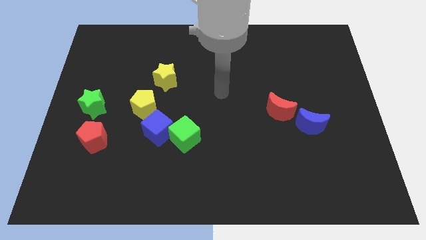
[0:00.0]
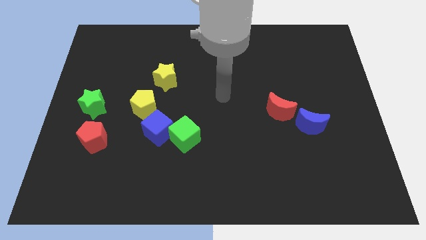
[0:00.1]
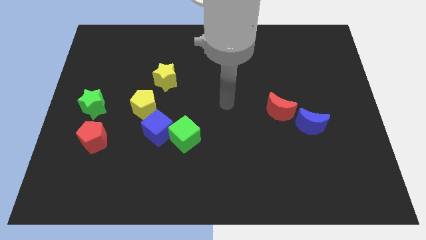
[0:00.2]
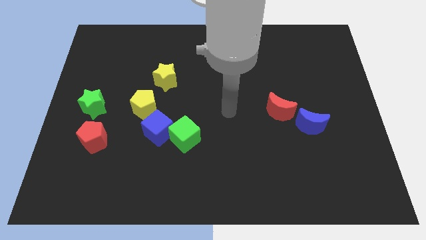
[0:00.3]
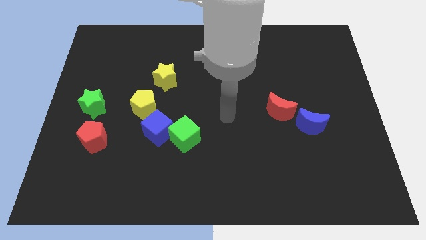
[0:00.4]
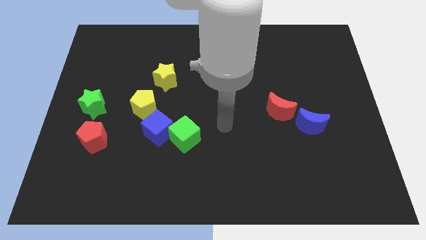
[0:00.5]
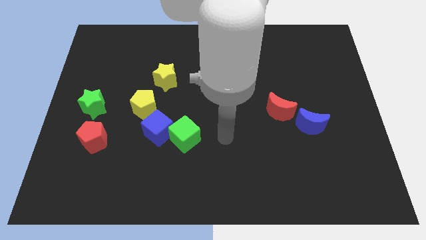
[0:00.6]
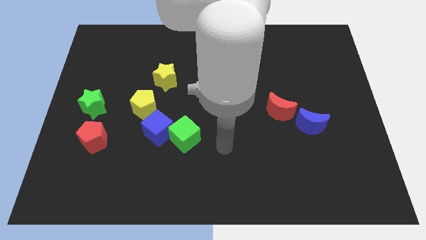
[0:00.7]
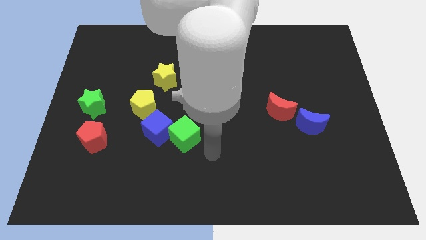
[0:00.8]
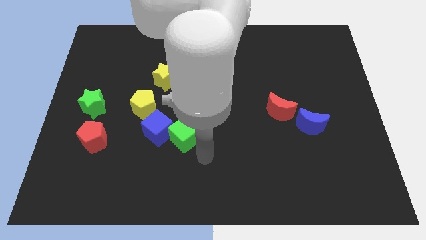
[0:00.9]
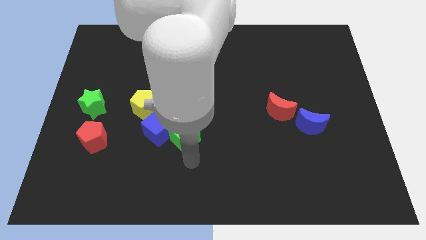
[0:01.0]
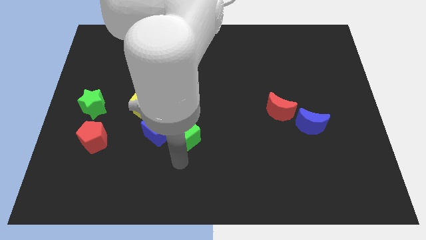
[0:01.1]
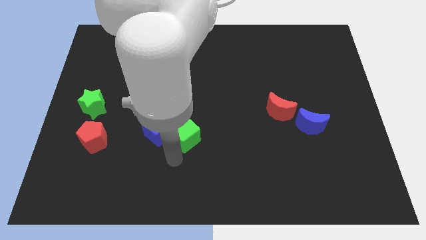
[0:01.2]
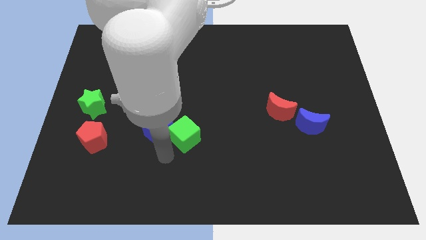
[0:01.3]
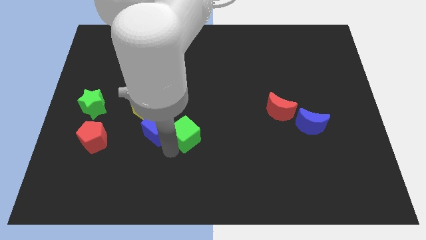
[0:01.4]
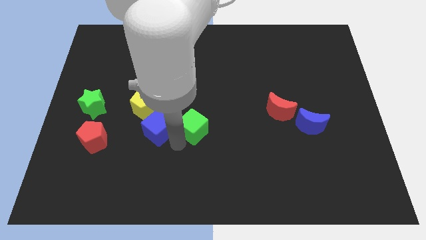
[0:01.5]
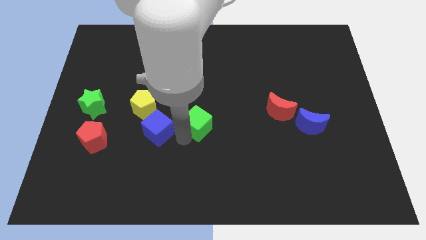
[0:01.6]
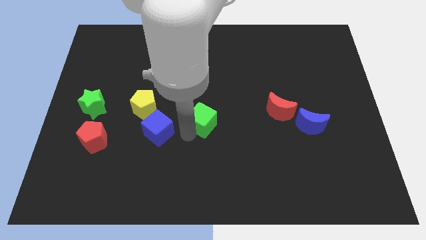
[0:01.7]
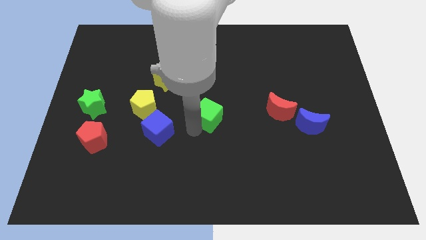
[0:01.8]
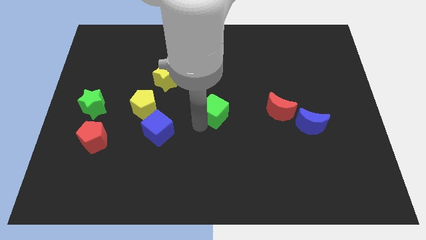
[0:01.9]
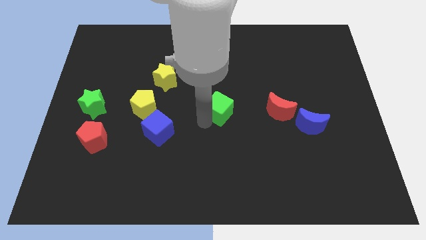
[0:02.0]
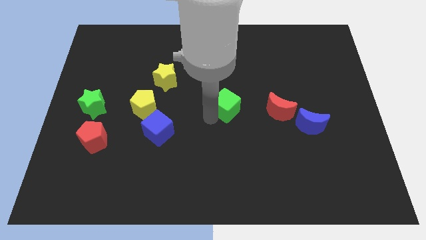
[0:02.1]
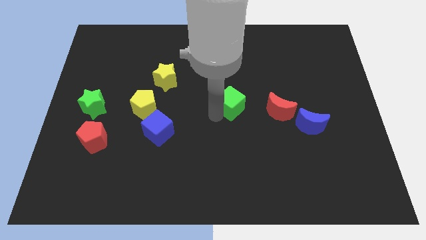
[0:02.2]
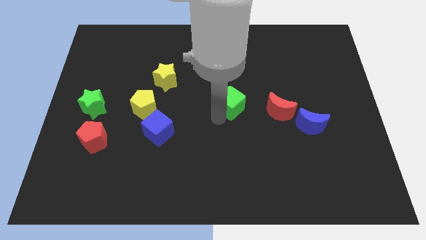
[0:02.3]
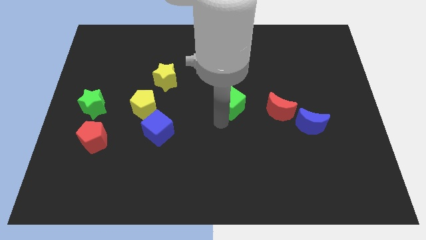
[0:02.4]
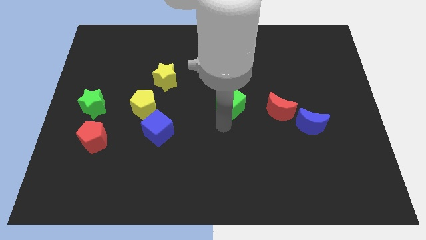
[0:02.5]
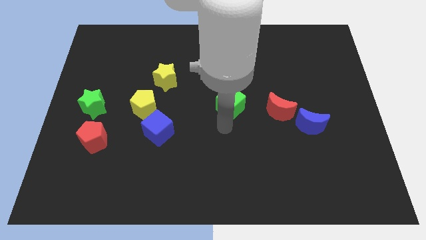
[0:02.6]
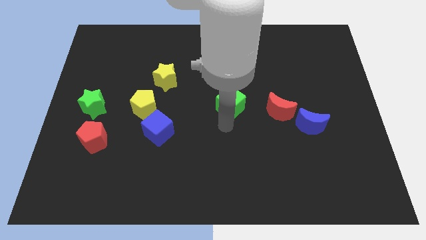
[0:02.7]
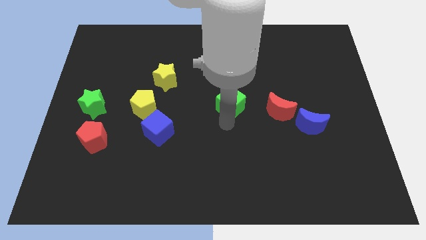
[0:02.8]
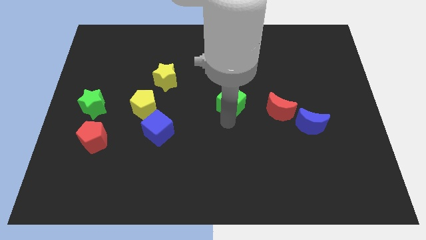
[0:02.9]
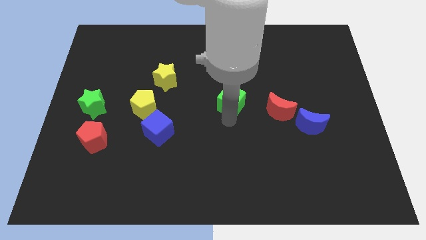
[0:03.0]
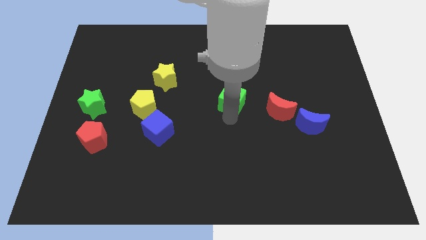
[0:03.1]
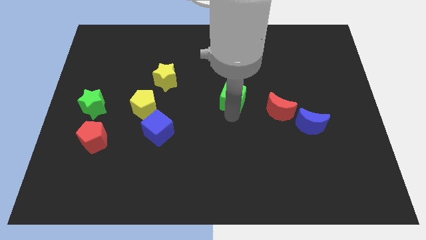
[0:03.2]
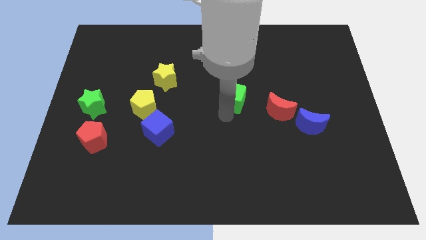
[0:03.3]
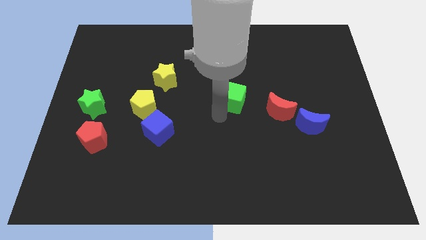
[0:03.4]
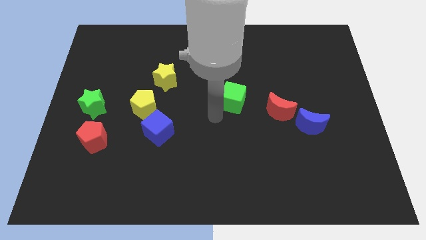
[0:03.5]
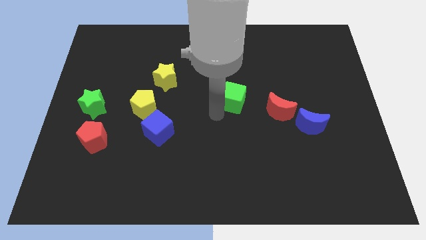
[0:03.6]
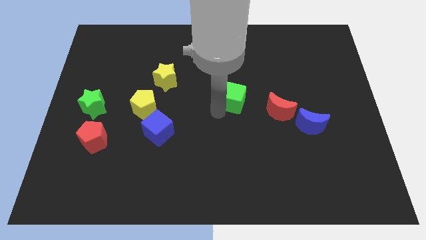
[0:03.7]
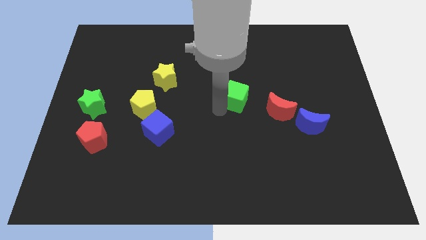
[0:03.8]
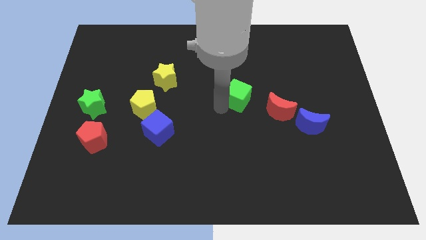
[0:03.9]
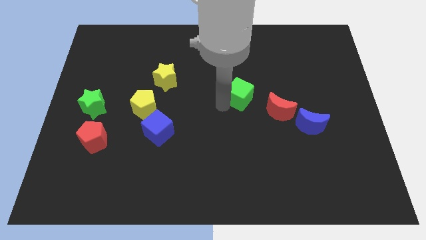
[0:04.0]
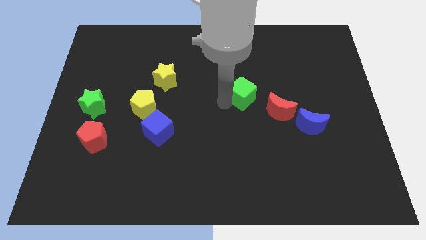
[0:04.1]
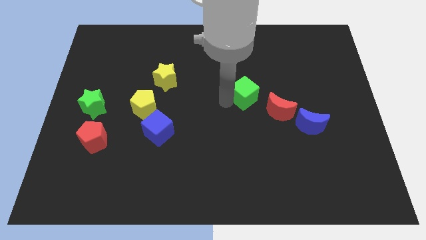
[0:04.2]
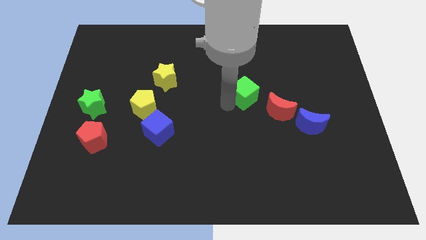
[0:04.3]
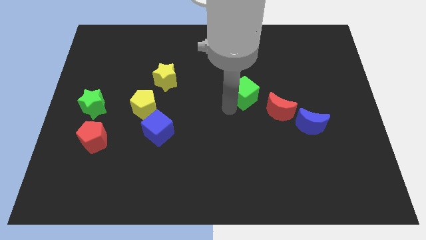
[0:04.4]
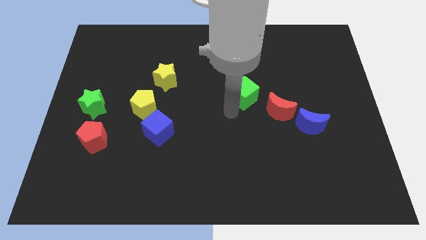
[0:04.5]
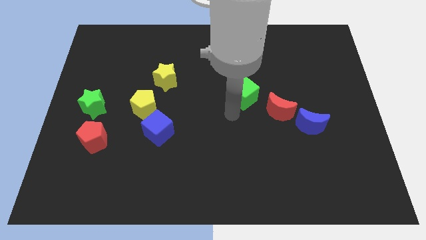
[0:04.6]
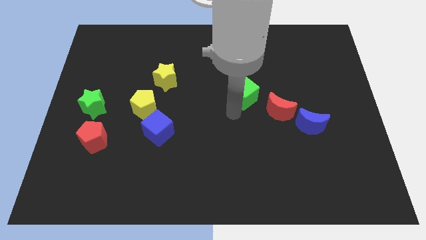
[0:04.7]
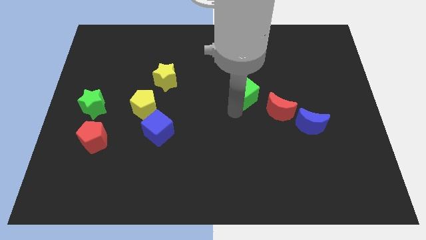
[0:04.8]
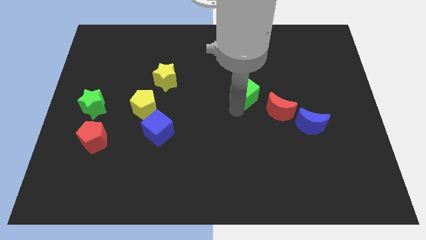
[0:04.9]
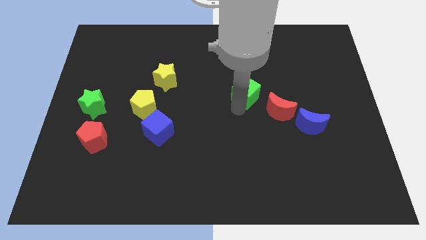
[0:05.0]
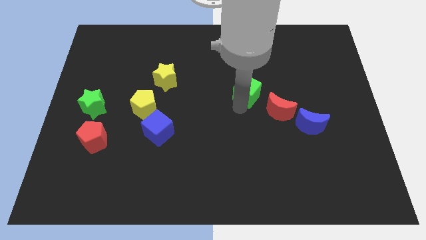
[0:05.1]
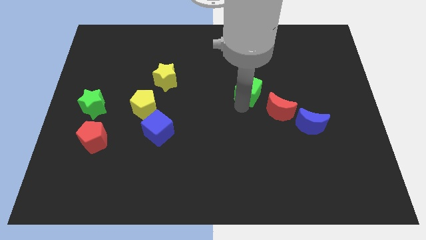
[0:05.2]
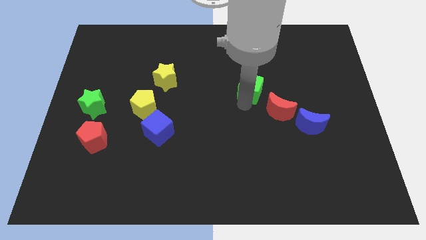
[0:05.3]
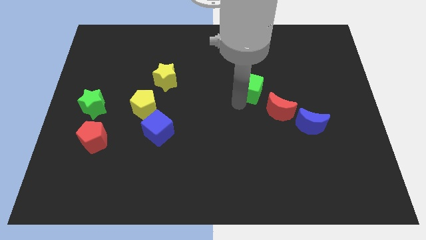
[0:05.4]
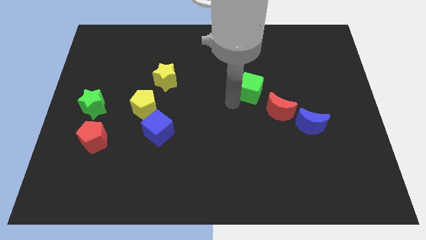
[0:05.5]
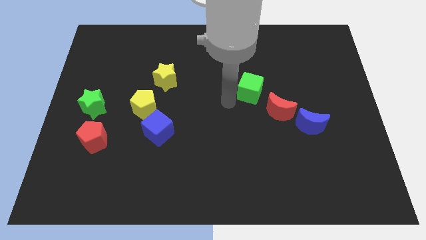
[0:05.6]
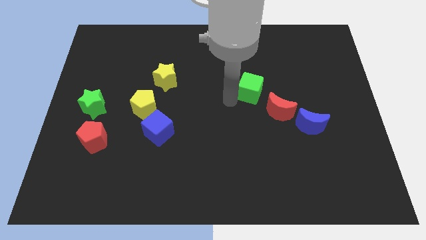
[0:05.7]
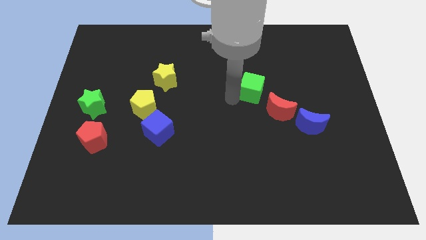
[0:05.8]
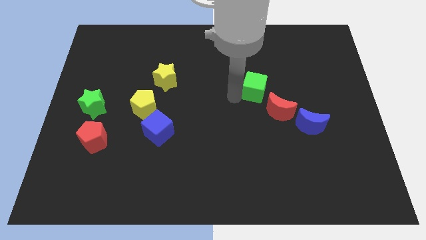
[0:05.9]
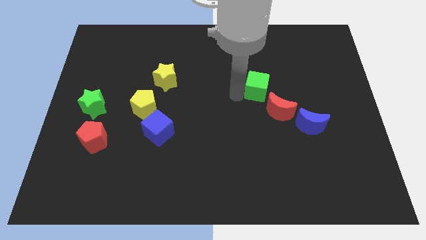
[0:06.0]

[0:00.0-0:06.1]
slide the green cube to the top of the red moon

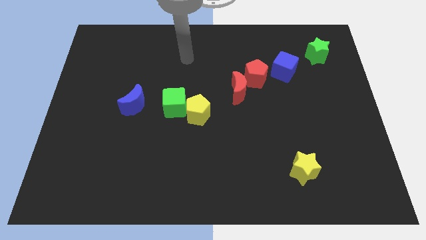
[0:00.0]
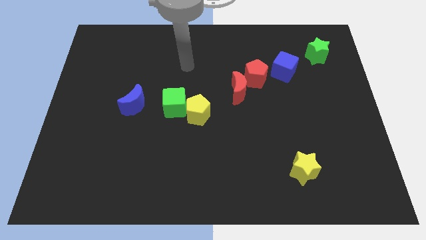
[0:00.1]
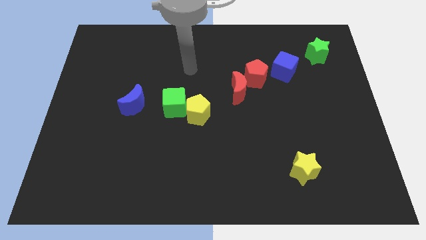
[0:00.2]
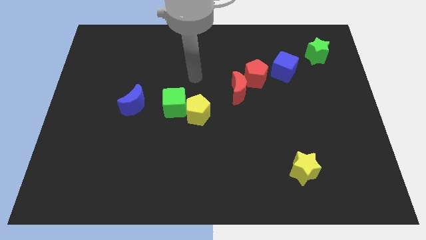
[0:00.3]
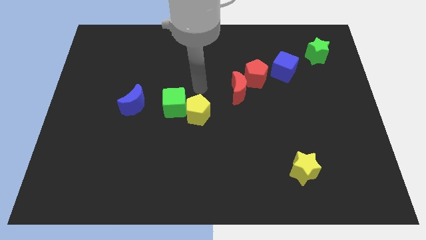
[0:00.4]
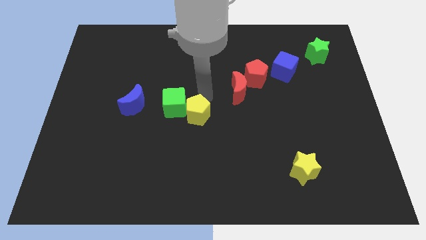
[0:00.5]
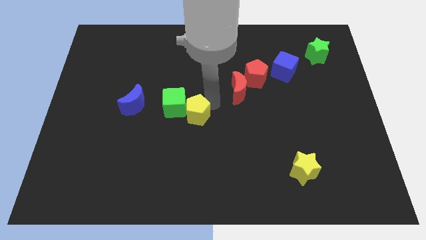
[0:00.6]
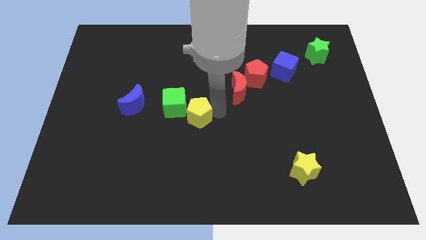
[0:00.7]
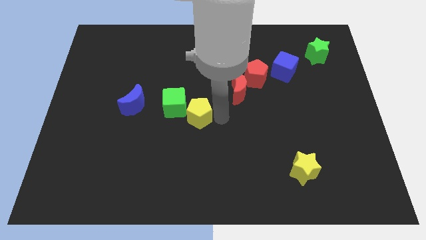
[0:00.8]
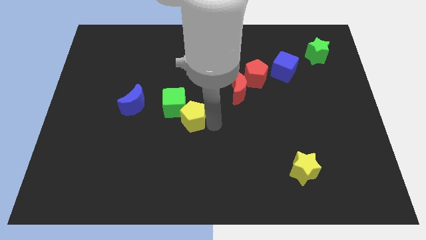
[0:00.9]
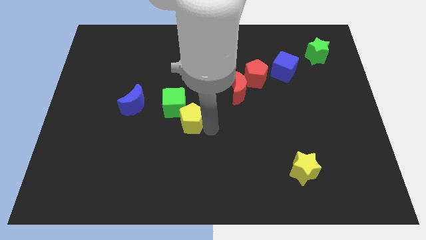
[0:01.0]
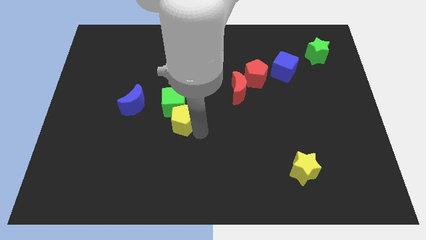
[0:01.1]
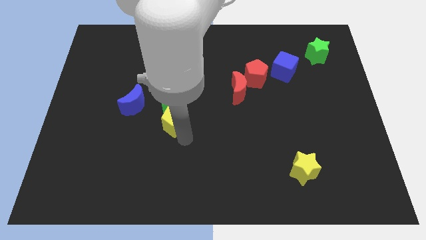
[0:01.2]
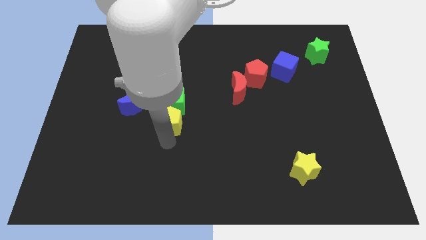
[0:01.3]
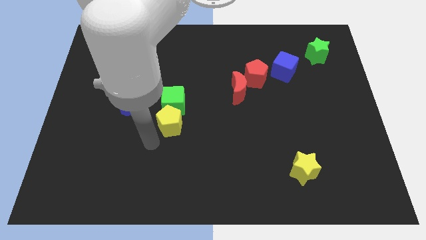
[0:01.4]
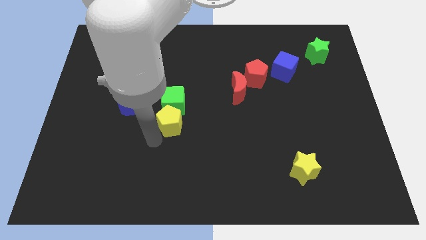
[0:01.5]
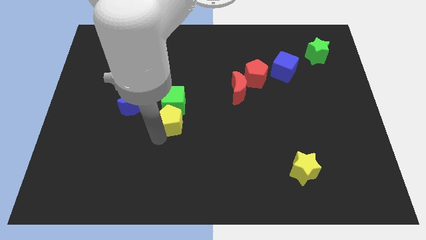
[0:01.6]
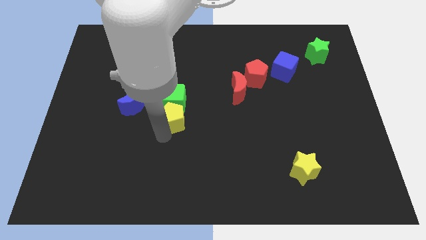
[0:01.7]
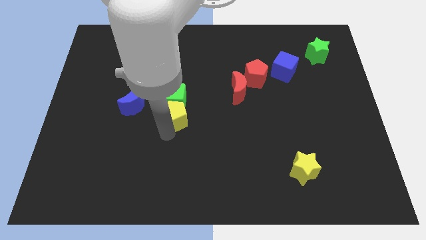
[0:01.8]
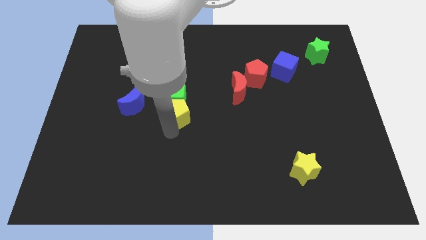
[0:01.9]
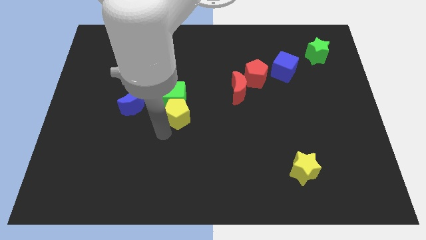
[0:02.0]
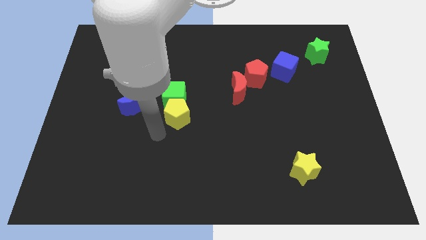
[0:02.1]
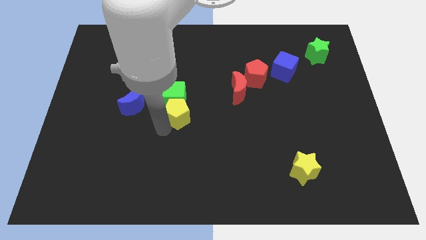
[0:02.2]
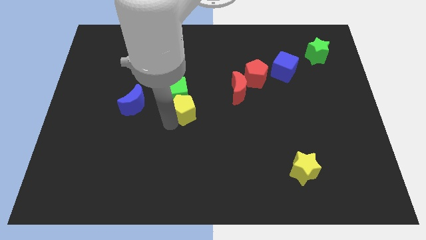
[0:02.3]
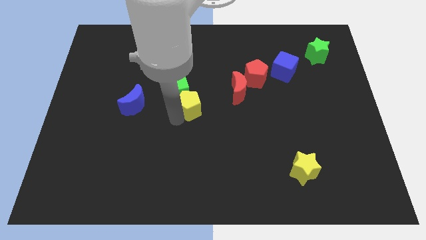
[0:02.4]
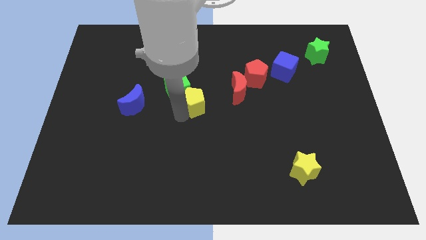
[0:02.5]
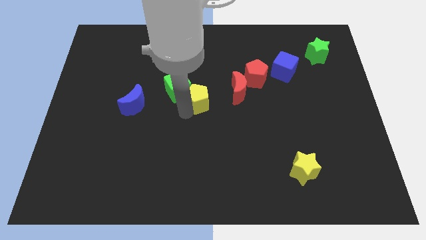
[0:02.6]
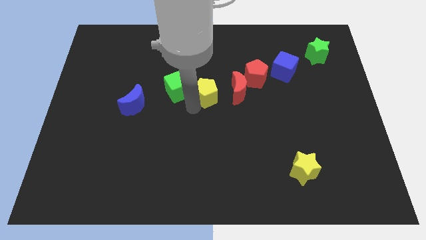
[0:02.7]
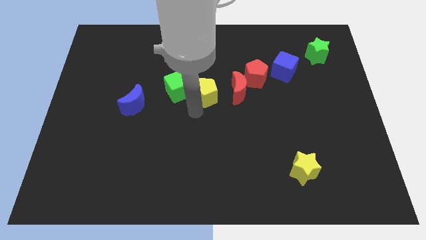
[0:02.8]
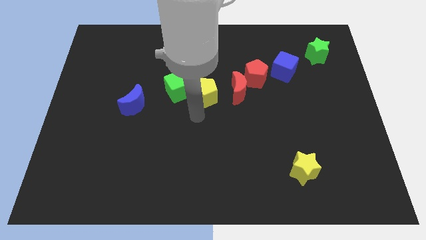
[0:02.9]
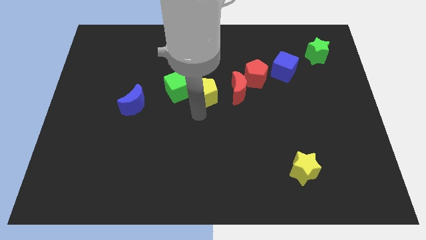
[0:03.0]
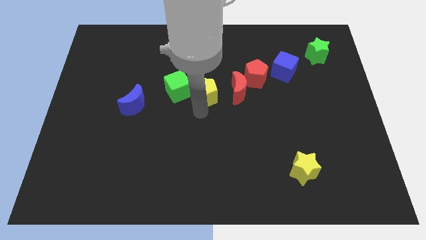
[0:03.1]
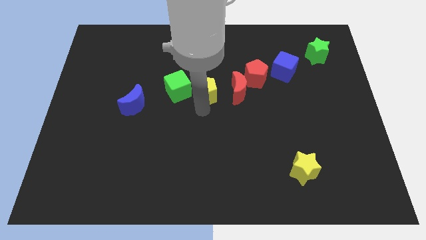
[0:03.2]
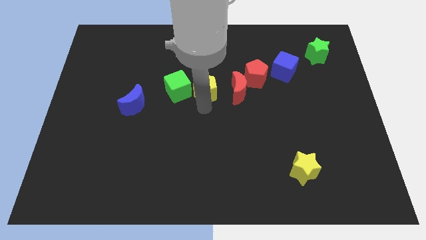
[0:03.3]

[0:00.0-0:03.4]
slide the yellow pentagon to the left side of the red pentagon
